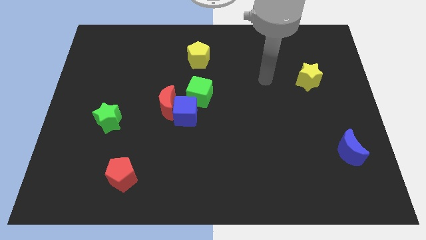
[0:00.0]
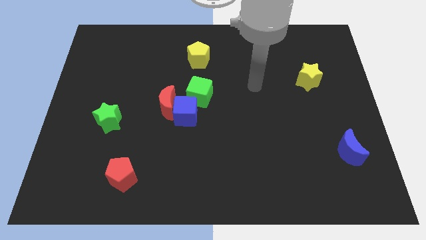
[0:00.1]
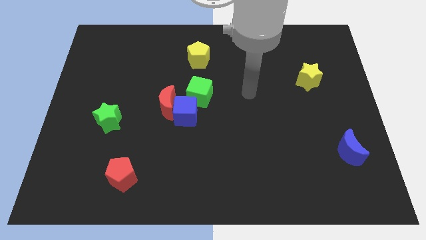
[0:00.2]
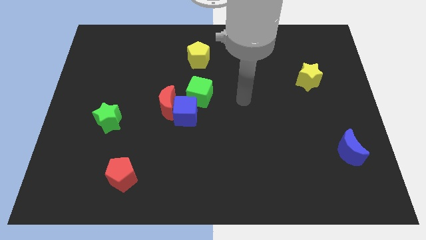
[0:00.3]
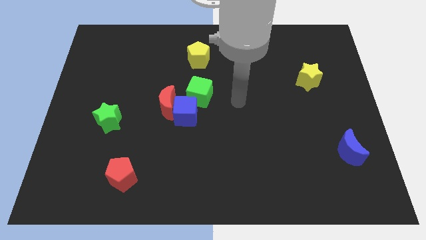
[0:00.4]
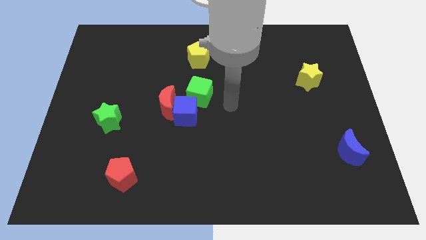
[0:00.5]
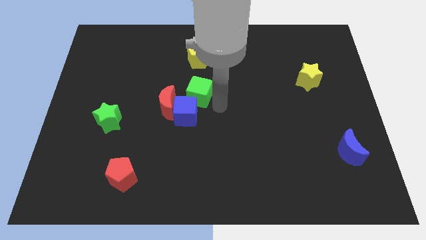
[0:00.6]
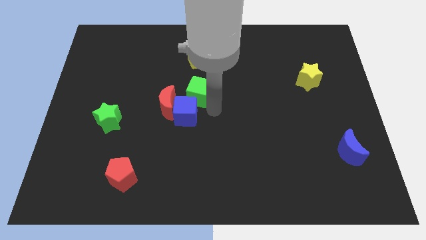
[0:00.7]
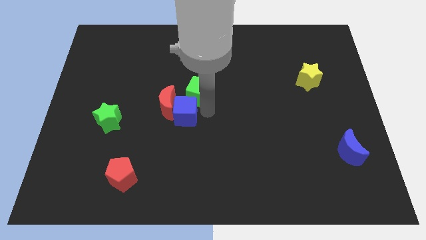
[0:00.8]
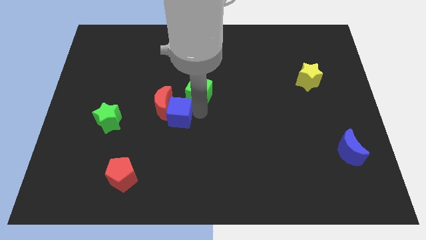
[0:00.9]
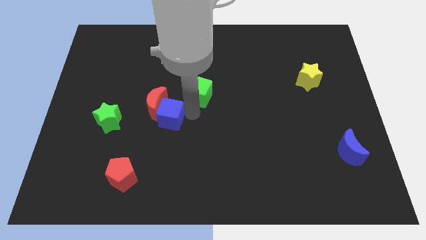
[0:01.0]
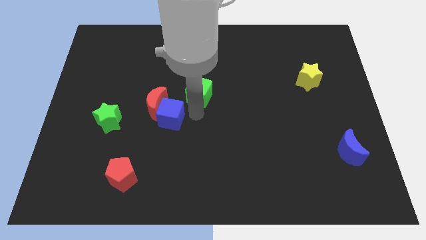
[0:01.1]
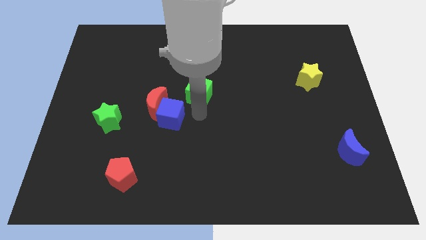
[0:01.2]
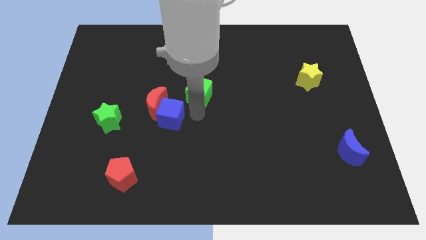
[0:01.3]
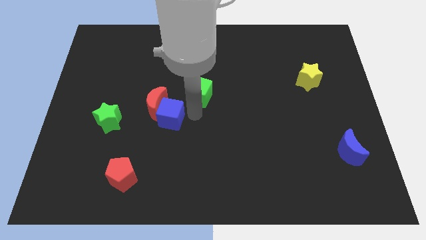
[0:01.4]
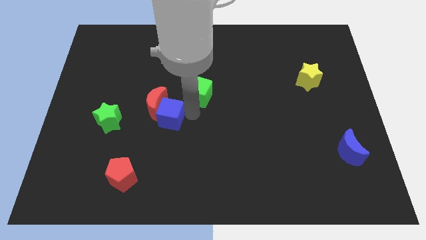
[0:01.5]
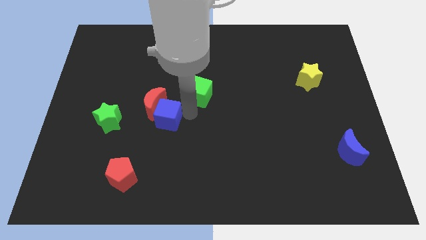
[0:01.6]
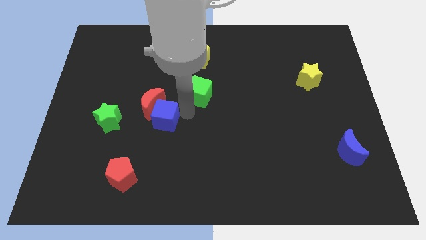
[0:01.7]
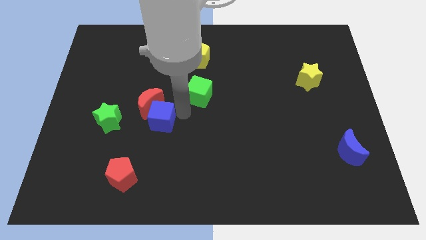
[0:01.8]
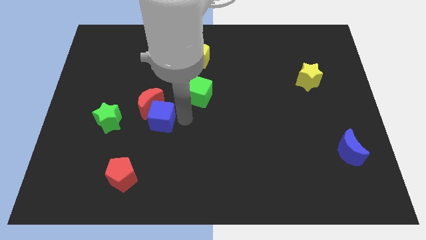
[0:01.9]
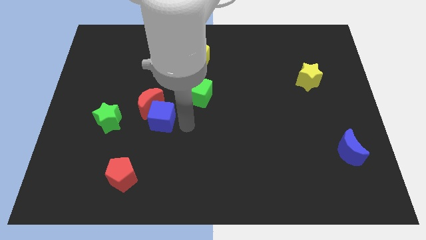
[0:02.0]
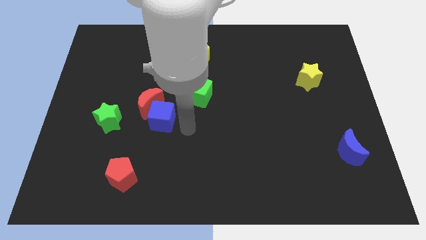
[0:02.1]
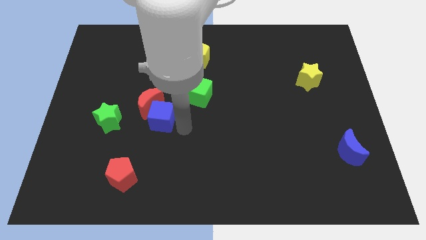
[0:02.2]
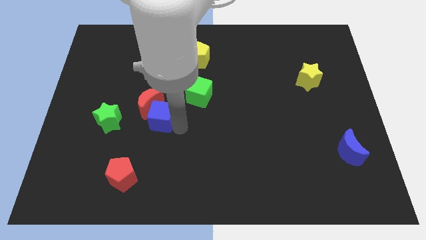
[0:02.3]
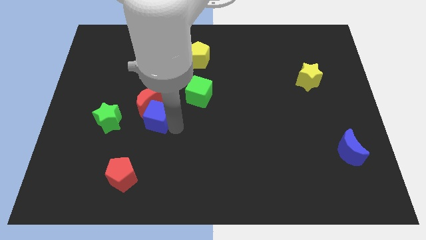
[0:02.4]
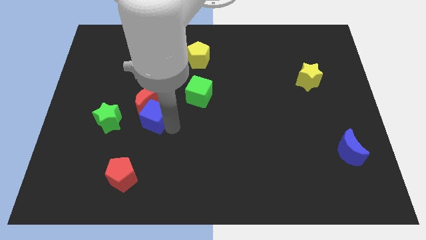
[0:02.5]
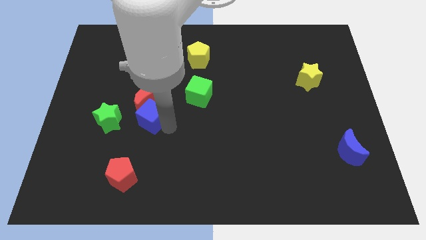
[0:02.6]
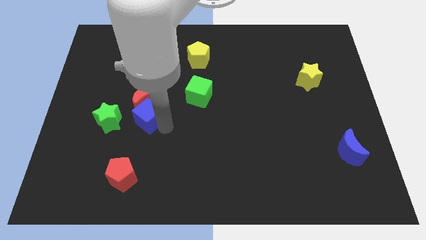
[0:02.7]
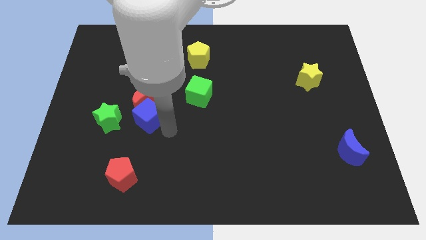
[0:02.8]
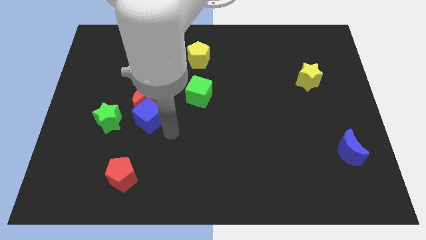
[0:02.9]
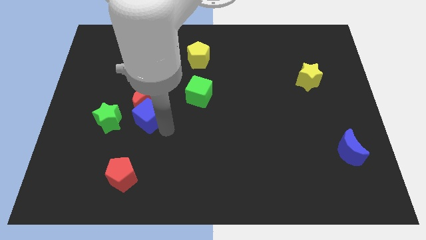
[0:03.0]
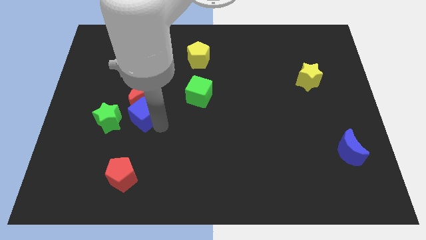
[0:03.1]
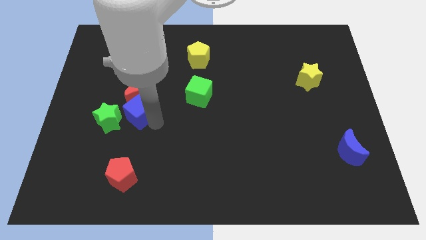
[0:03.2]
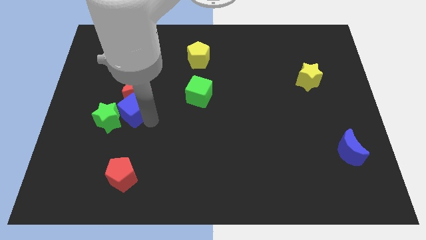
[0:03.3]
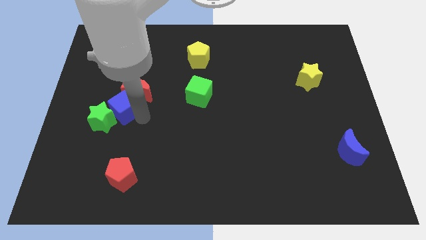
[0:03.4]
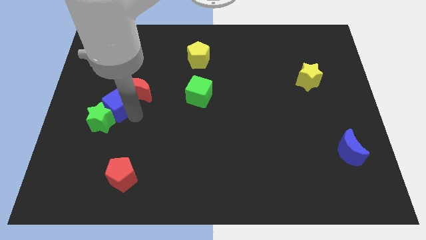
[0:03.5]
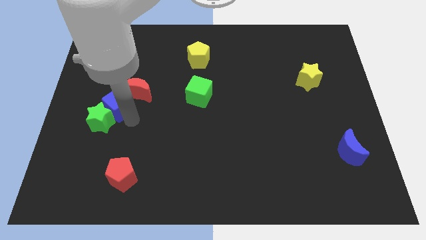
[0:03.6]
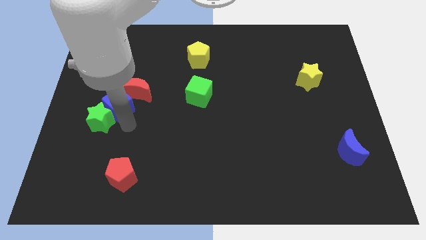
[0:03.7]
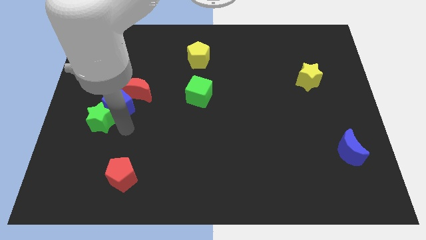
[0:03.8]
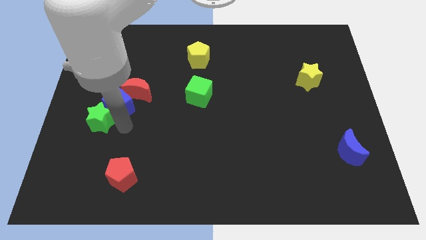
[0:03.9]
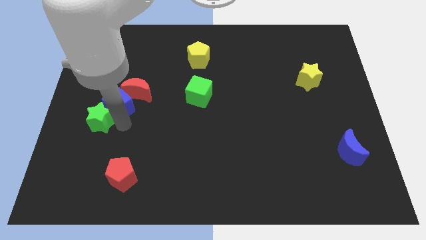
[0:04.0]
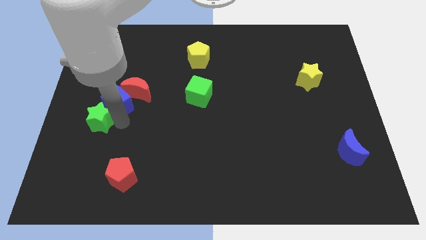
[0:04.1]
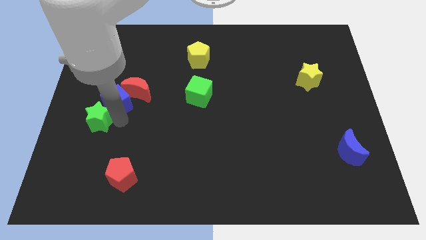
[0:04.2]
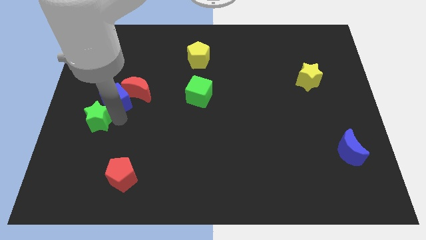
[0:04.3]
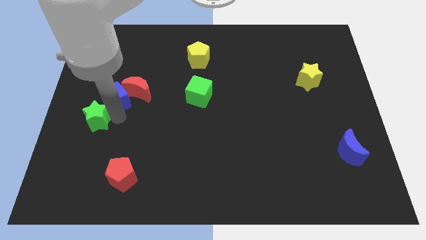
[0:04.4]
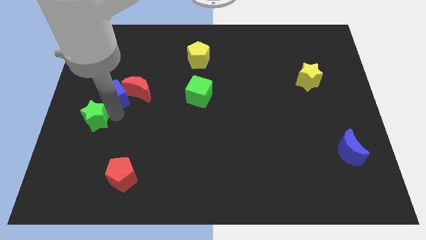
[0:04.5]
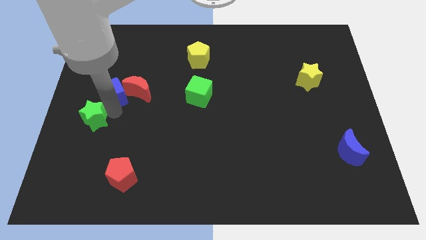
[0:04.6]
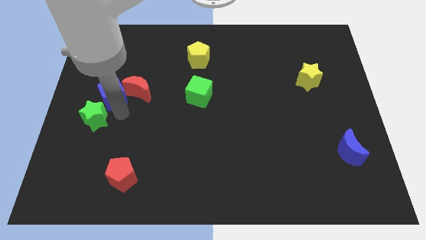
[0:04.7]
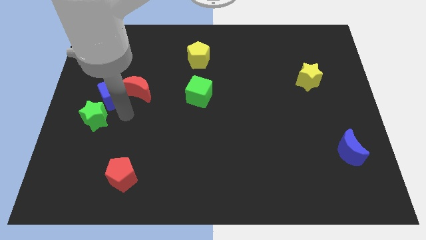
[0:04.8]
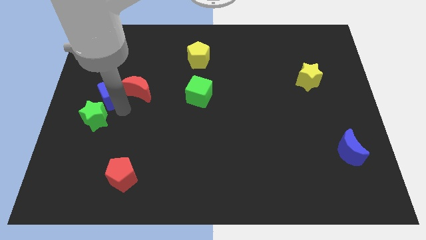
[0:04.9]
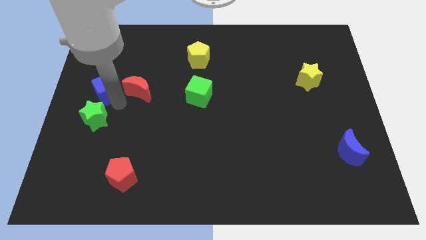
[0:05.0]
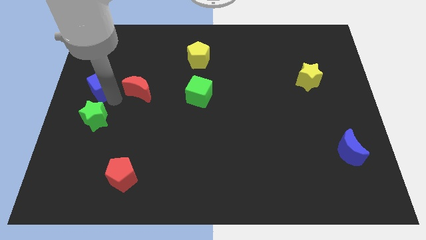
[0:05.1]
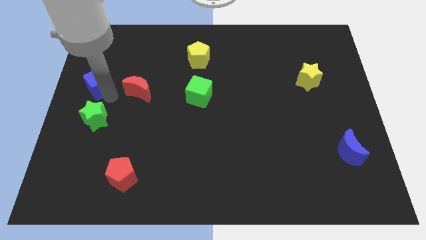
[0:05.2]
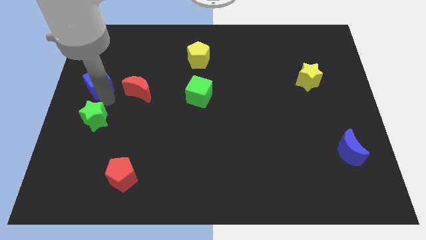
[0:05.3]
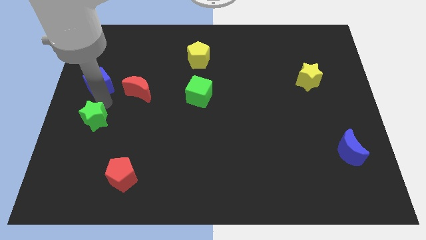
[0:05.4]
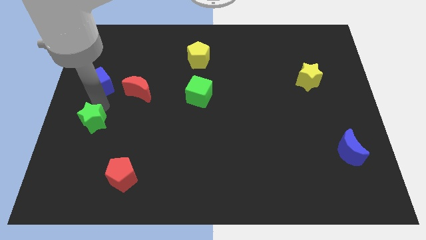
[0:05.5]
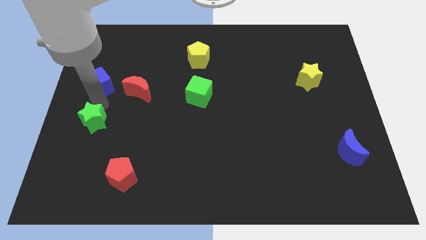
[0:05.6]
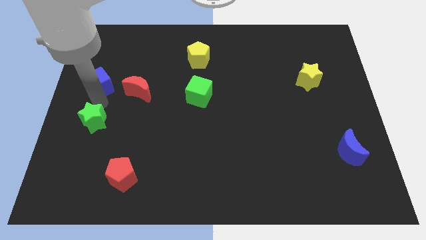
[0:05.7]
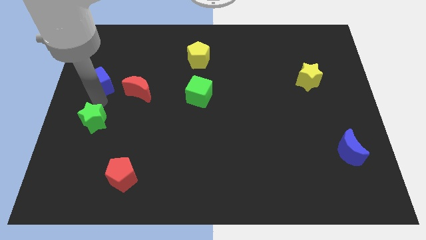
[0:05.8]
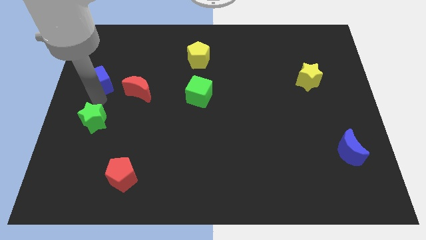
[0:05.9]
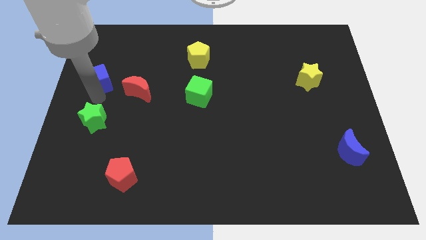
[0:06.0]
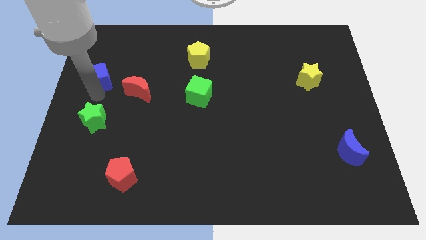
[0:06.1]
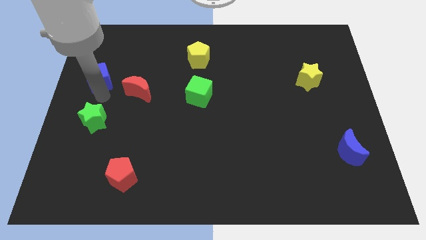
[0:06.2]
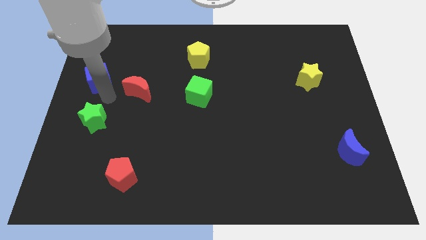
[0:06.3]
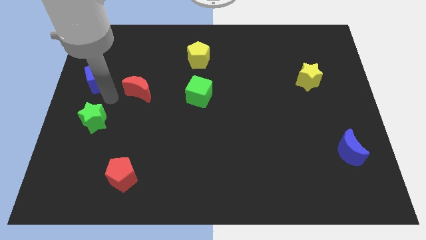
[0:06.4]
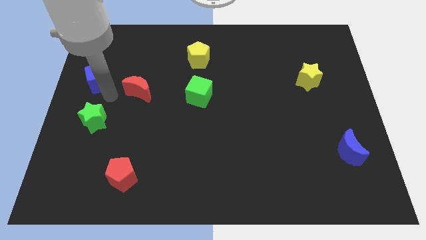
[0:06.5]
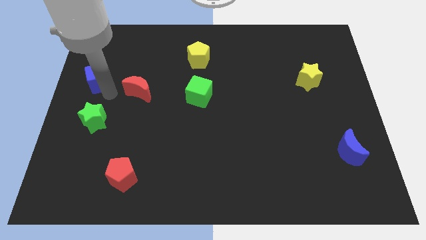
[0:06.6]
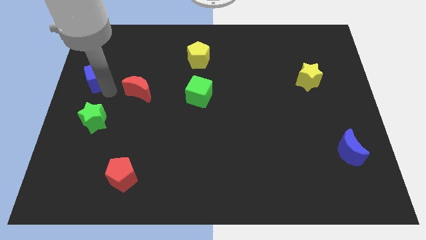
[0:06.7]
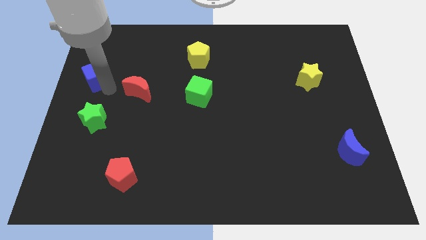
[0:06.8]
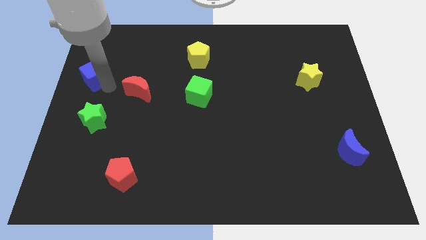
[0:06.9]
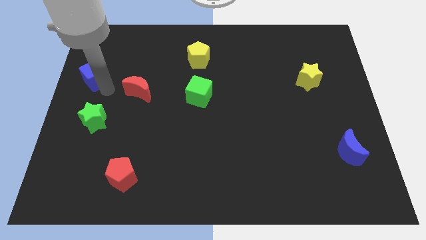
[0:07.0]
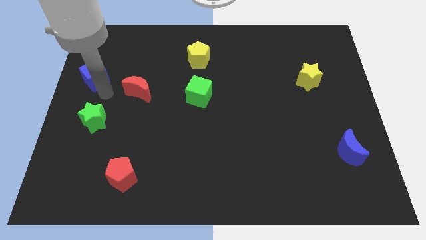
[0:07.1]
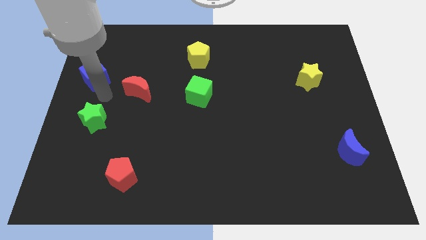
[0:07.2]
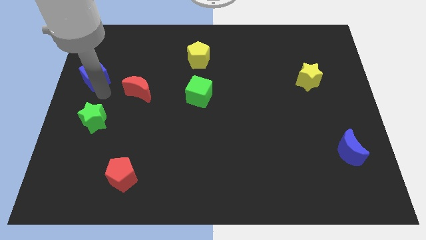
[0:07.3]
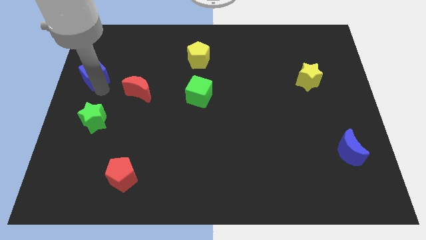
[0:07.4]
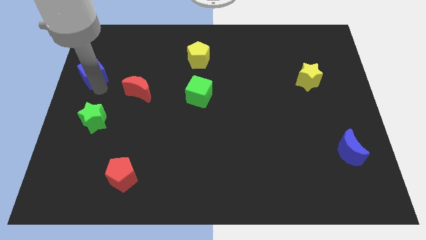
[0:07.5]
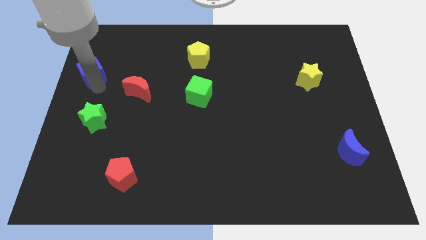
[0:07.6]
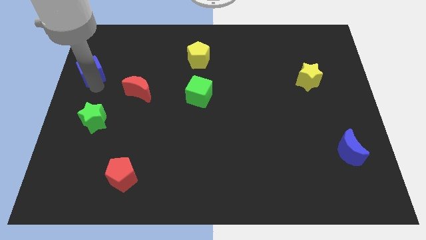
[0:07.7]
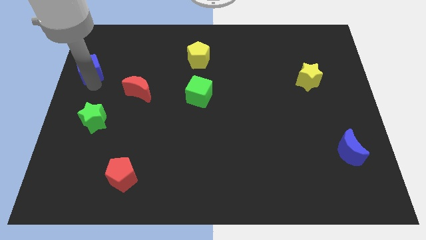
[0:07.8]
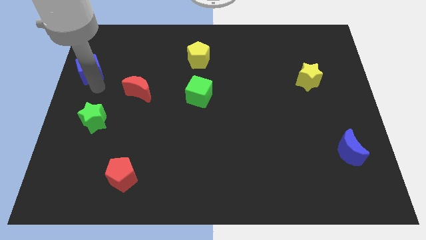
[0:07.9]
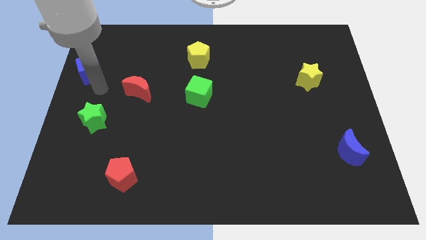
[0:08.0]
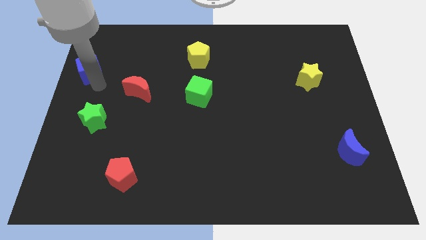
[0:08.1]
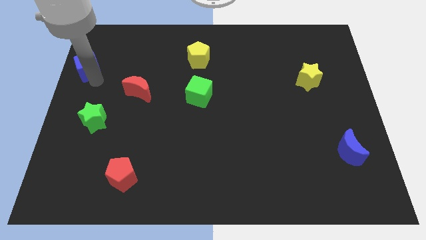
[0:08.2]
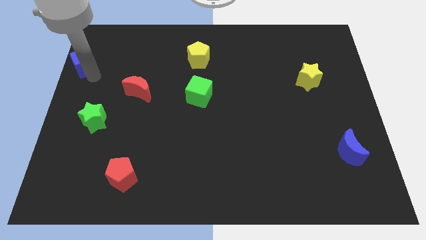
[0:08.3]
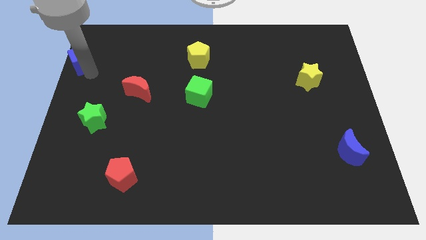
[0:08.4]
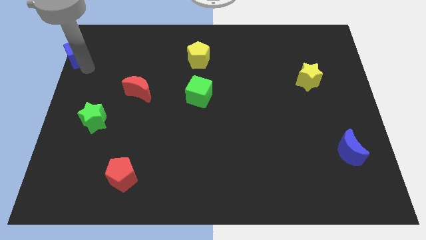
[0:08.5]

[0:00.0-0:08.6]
push the blue cube to the top left of the board
